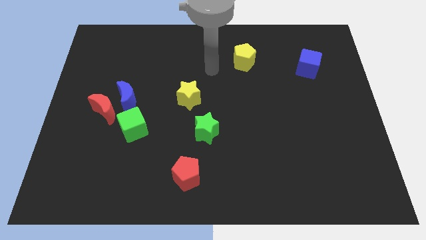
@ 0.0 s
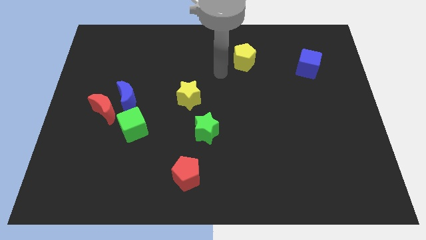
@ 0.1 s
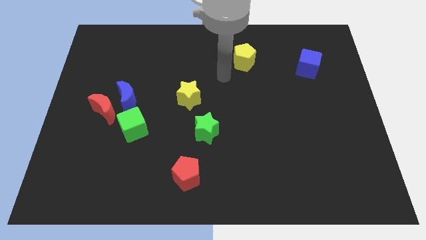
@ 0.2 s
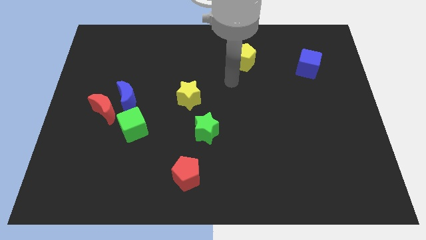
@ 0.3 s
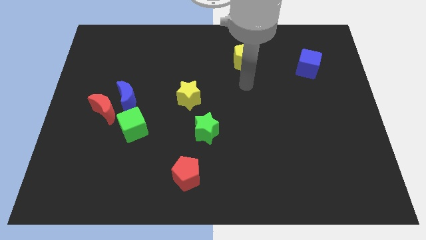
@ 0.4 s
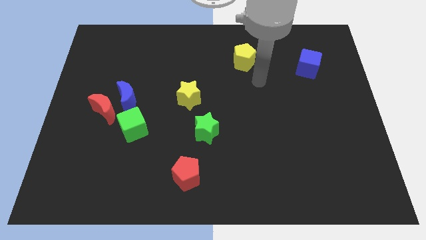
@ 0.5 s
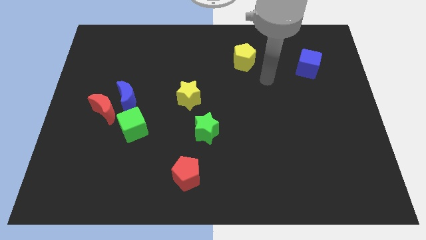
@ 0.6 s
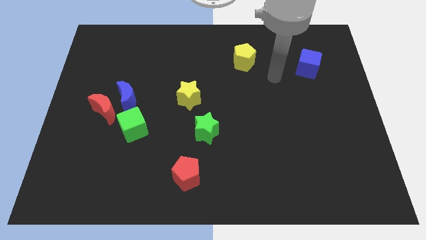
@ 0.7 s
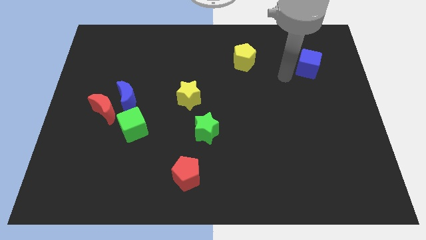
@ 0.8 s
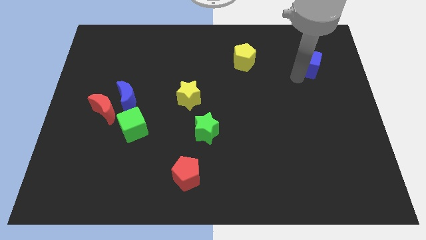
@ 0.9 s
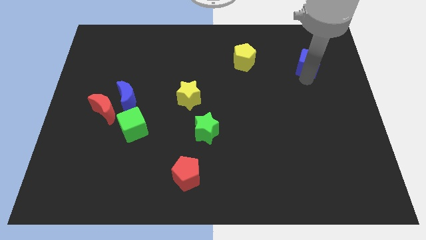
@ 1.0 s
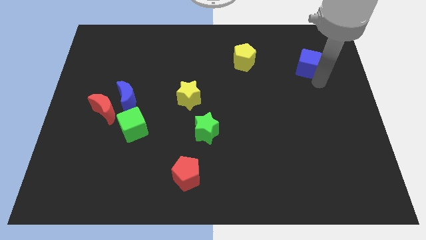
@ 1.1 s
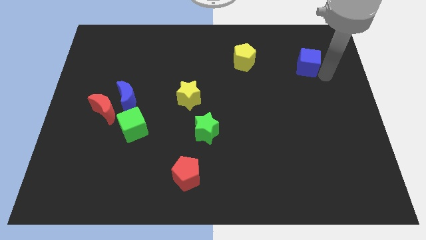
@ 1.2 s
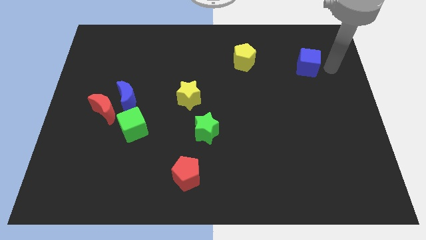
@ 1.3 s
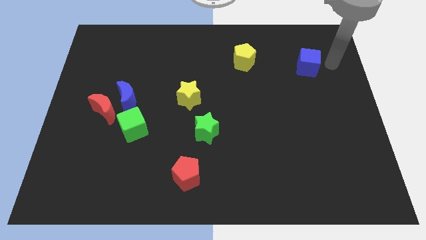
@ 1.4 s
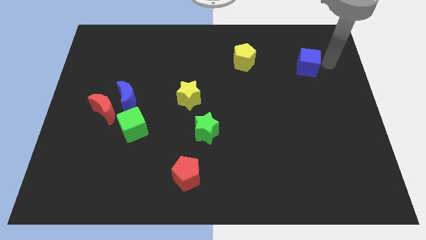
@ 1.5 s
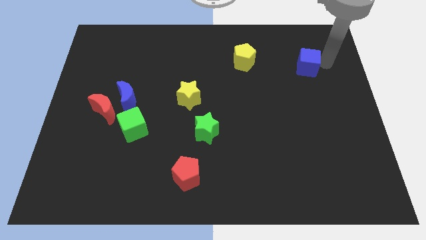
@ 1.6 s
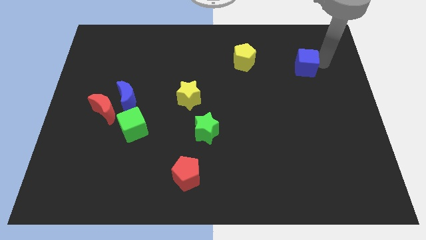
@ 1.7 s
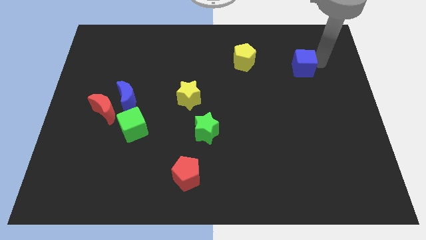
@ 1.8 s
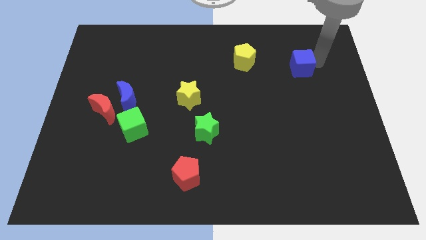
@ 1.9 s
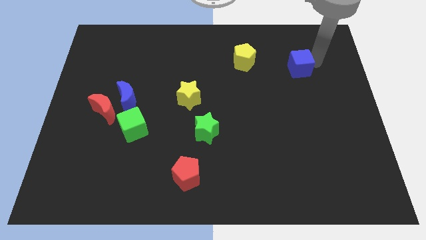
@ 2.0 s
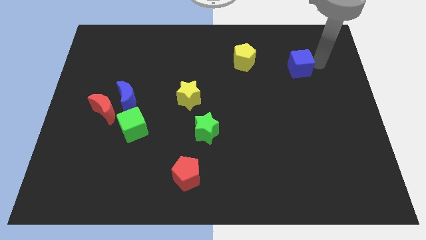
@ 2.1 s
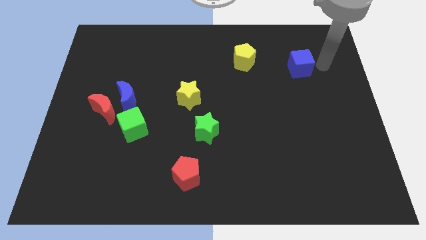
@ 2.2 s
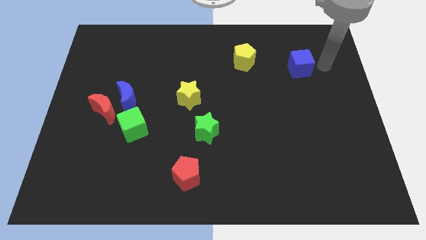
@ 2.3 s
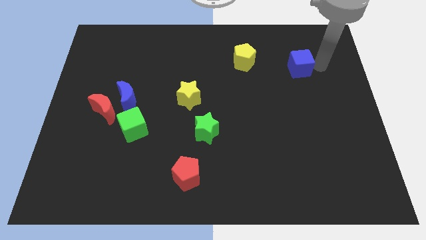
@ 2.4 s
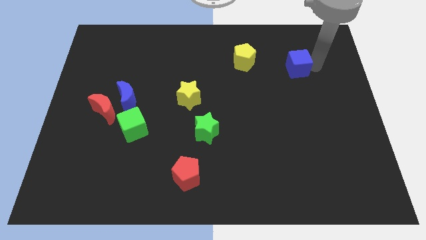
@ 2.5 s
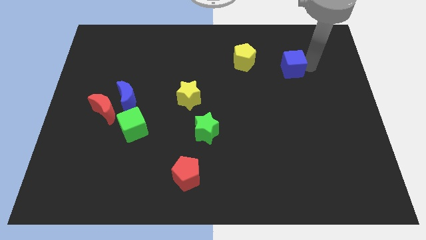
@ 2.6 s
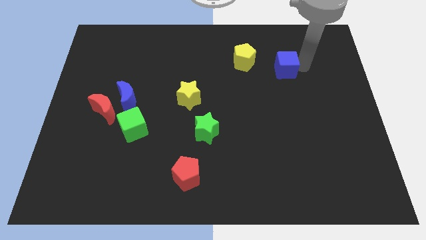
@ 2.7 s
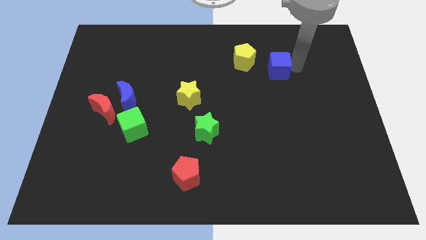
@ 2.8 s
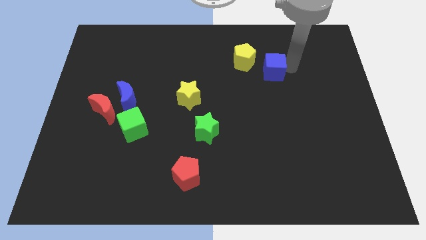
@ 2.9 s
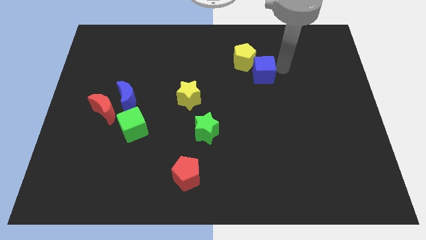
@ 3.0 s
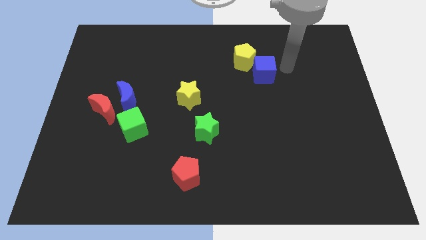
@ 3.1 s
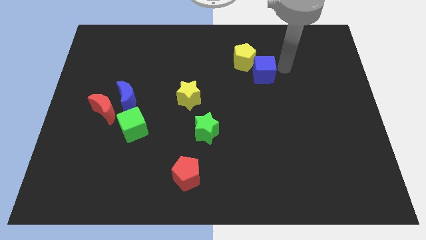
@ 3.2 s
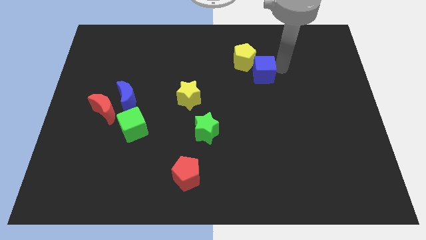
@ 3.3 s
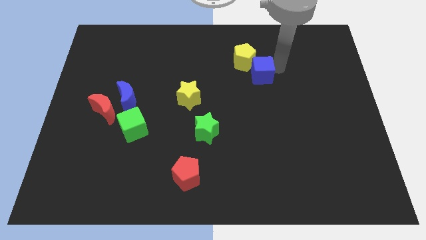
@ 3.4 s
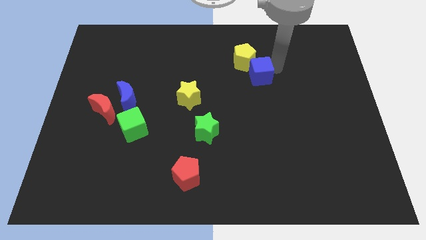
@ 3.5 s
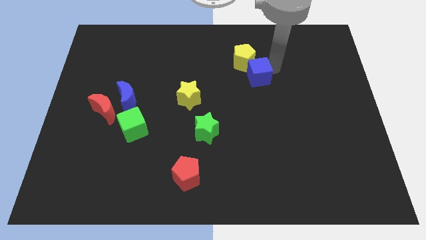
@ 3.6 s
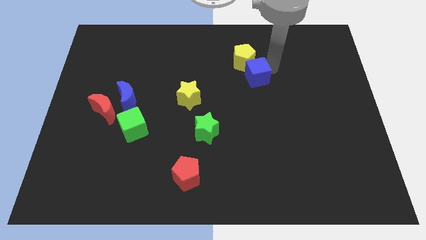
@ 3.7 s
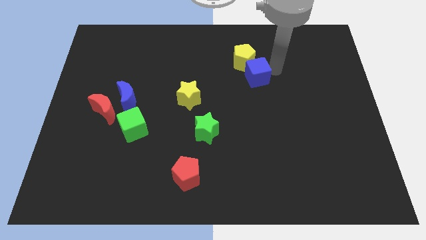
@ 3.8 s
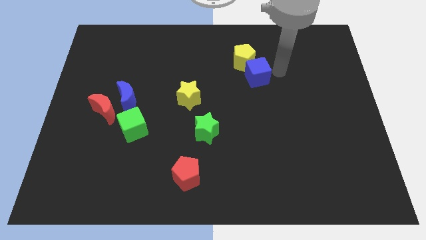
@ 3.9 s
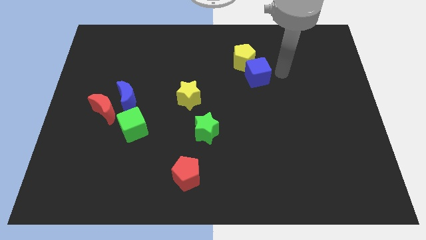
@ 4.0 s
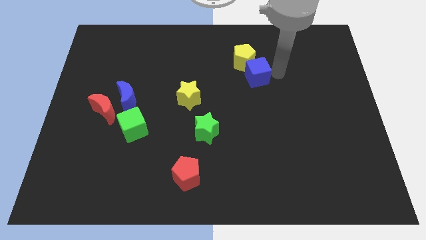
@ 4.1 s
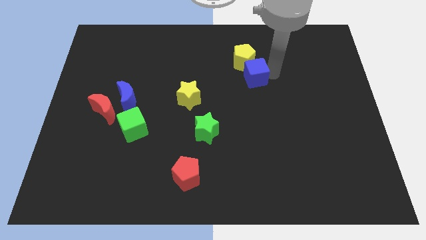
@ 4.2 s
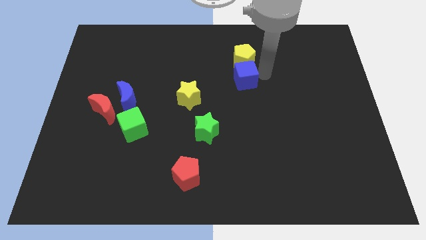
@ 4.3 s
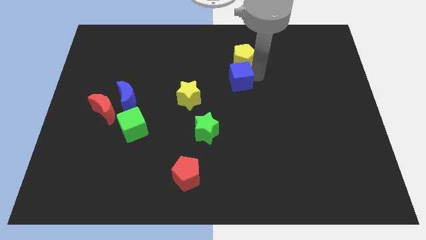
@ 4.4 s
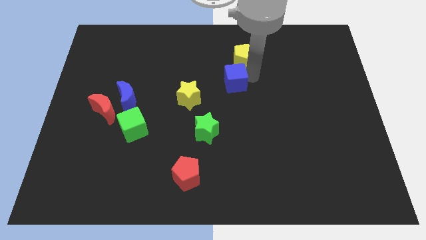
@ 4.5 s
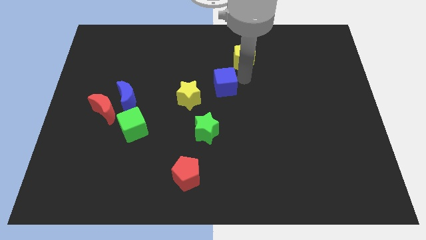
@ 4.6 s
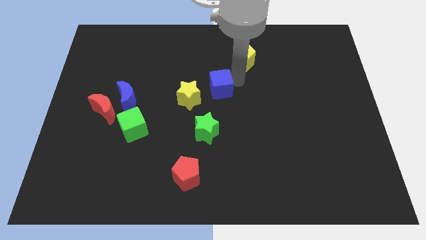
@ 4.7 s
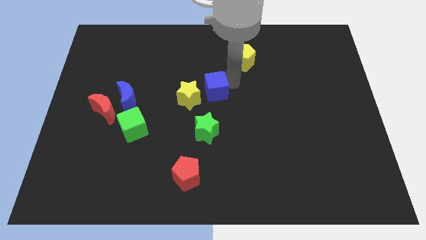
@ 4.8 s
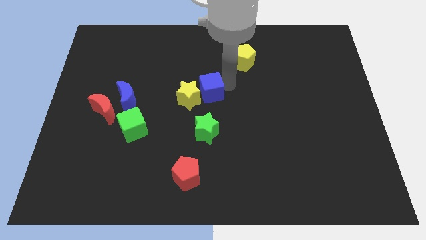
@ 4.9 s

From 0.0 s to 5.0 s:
move the blue cube to the yellow star

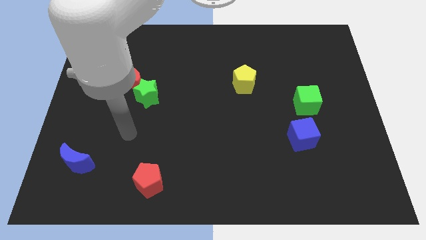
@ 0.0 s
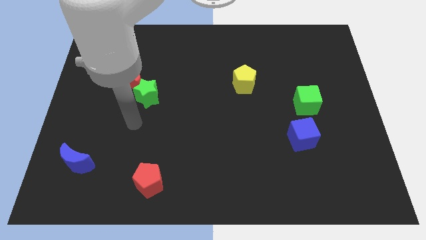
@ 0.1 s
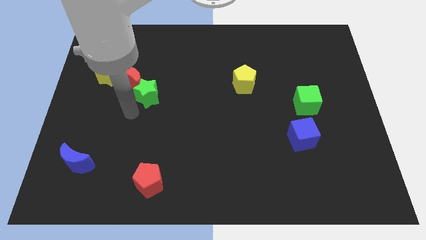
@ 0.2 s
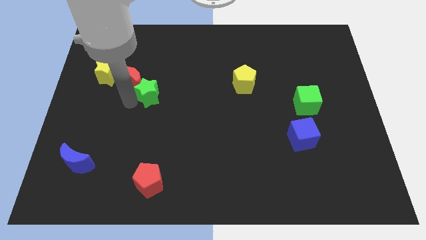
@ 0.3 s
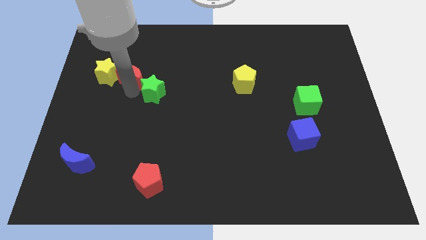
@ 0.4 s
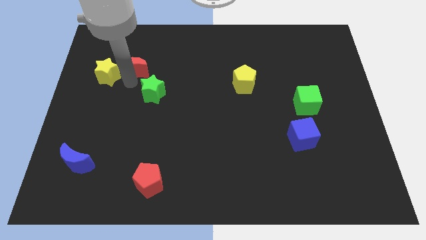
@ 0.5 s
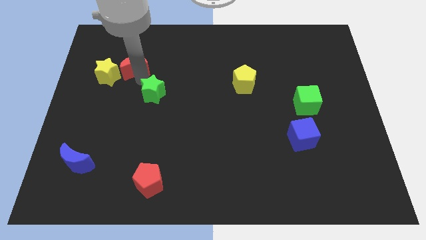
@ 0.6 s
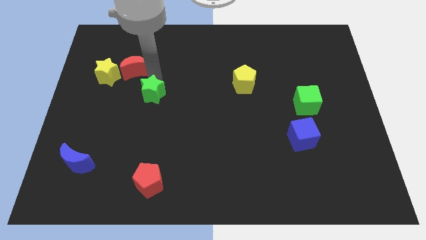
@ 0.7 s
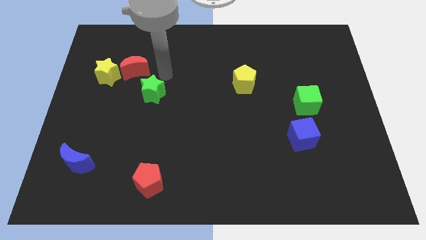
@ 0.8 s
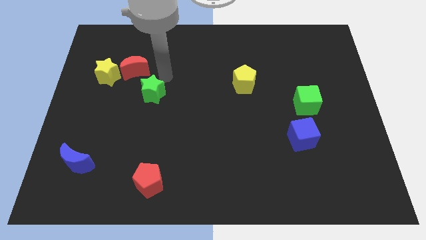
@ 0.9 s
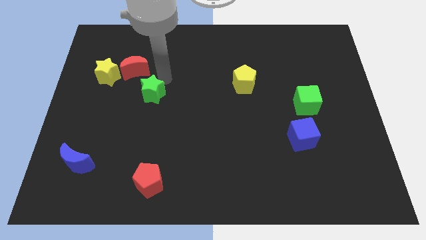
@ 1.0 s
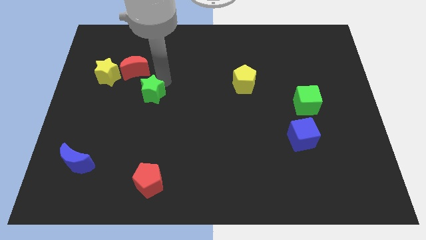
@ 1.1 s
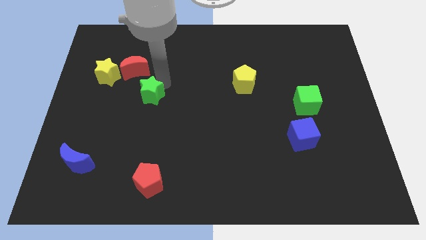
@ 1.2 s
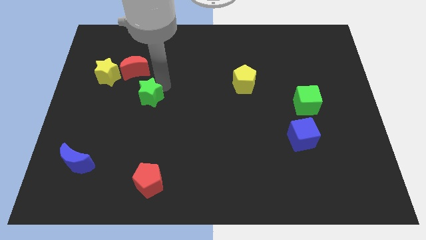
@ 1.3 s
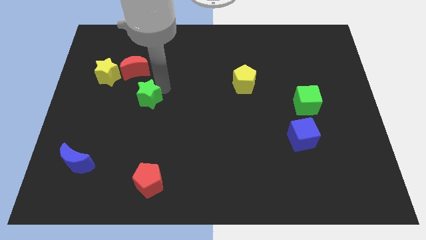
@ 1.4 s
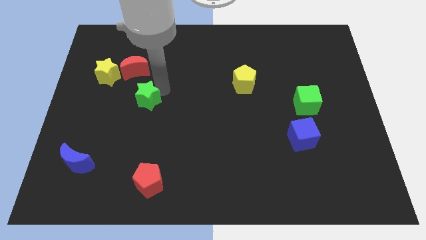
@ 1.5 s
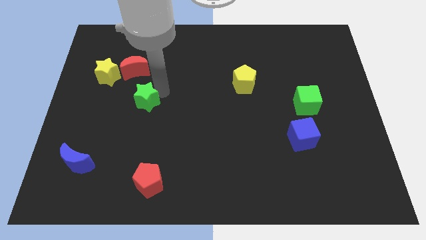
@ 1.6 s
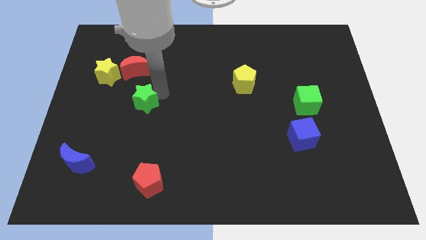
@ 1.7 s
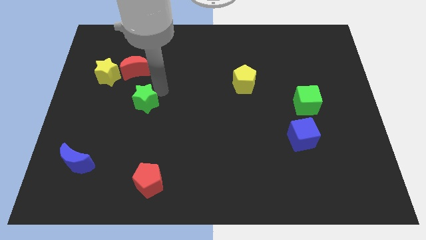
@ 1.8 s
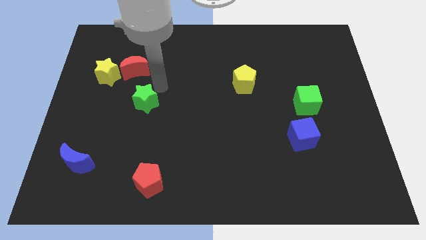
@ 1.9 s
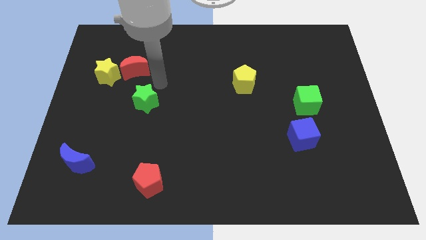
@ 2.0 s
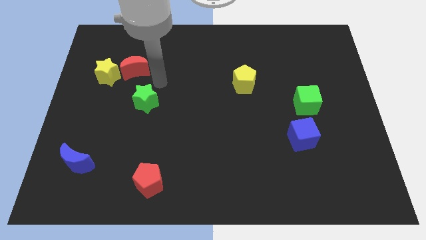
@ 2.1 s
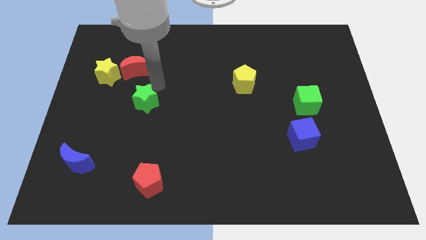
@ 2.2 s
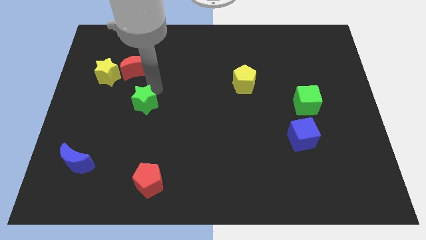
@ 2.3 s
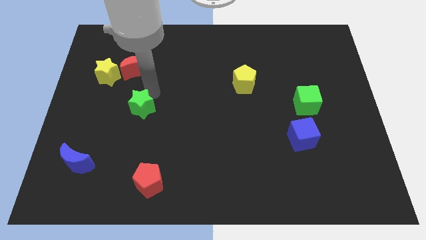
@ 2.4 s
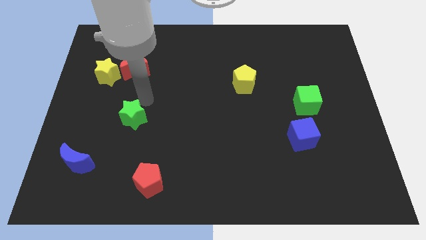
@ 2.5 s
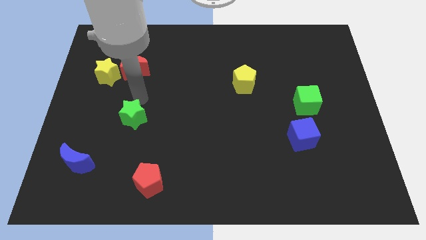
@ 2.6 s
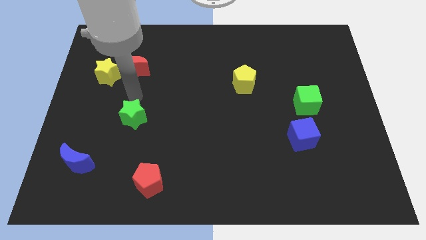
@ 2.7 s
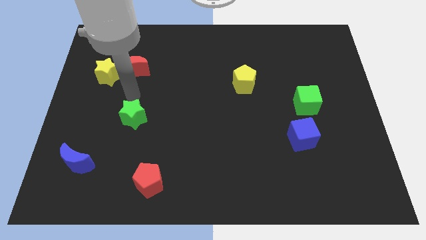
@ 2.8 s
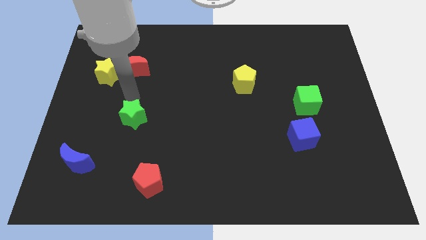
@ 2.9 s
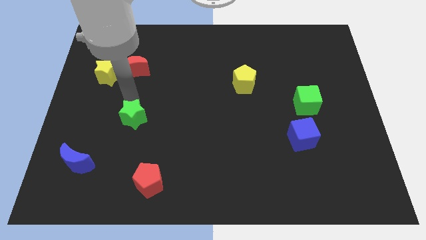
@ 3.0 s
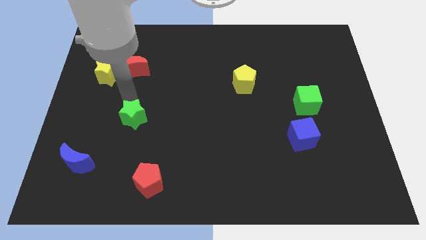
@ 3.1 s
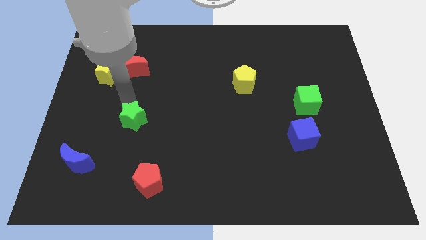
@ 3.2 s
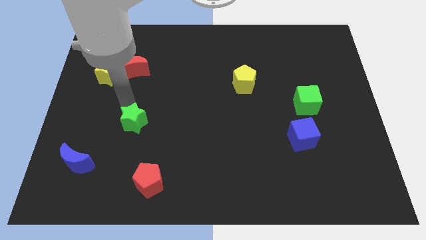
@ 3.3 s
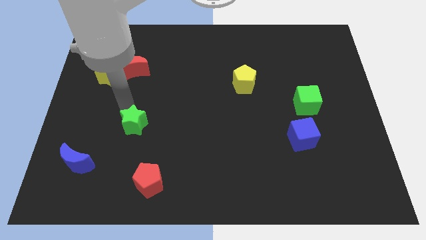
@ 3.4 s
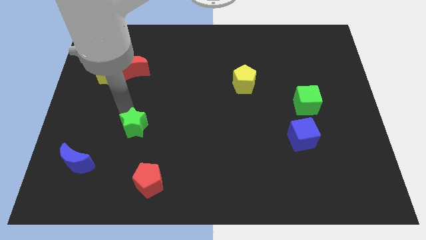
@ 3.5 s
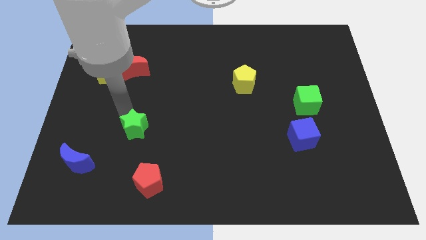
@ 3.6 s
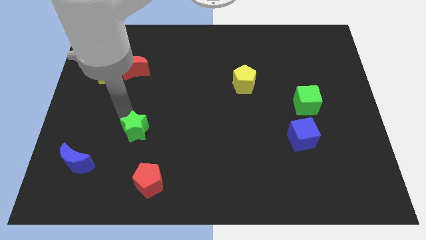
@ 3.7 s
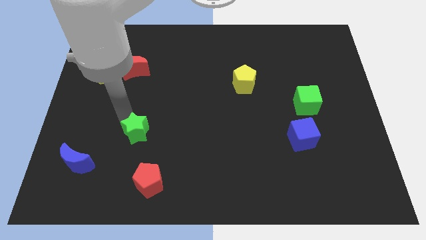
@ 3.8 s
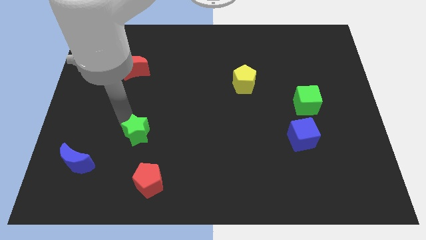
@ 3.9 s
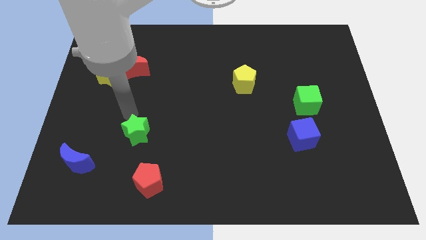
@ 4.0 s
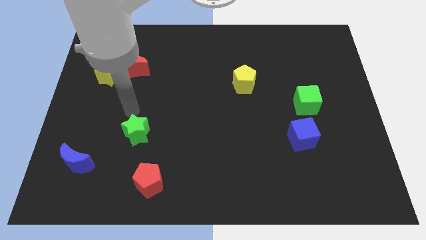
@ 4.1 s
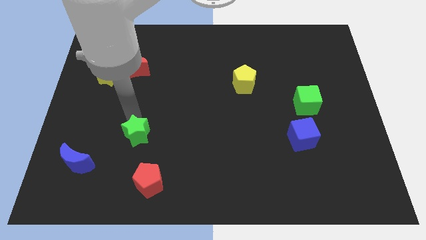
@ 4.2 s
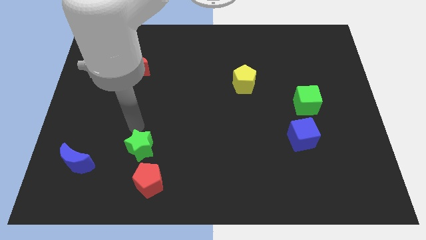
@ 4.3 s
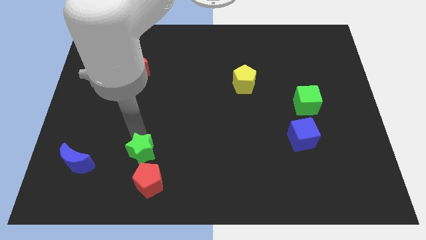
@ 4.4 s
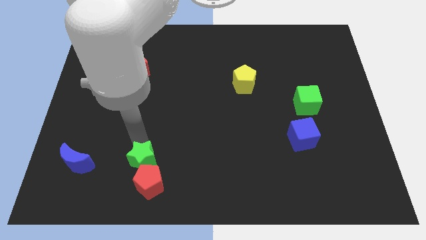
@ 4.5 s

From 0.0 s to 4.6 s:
put the green star to the red pentagon
